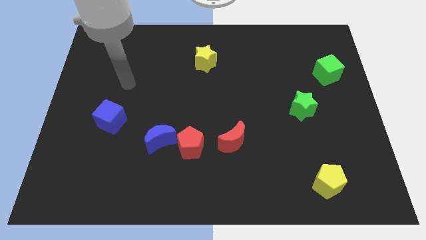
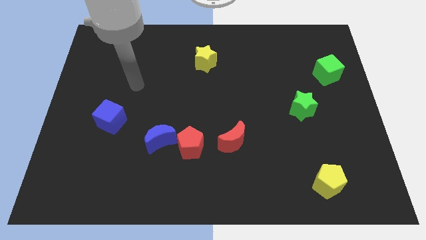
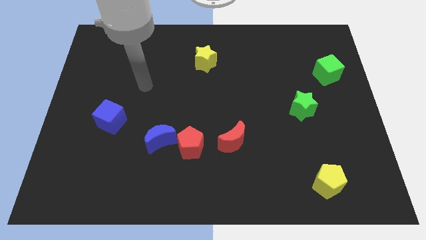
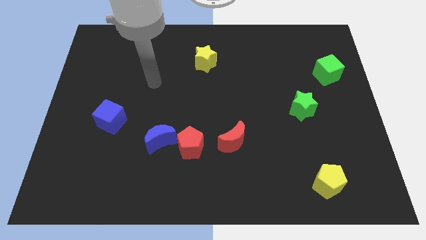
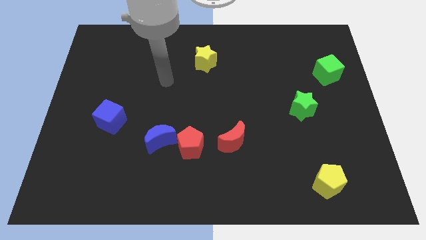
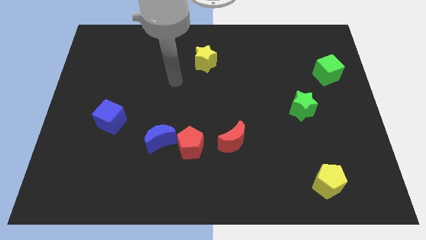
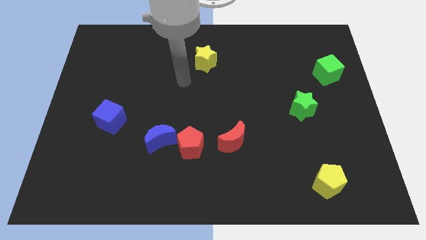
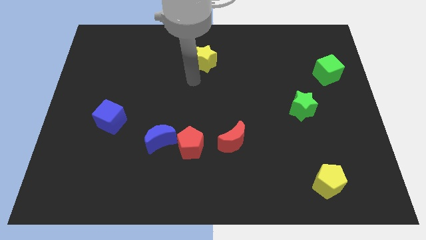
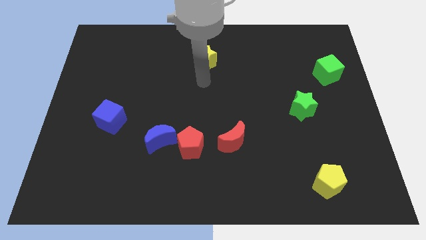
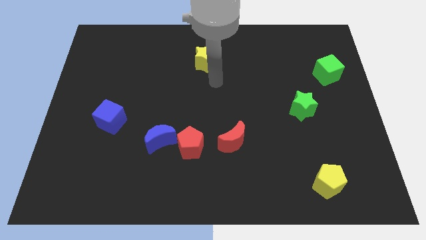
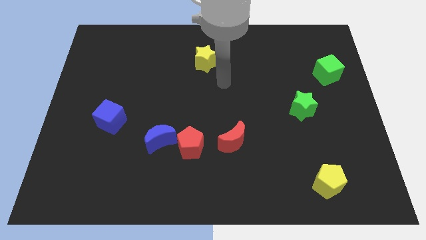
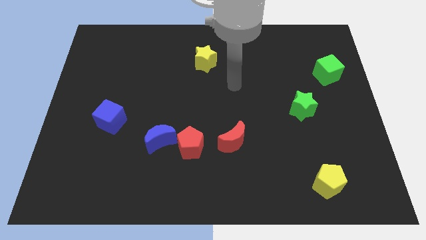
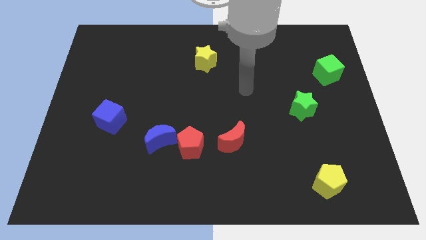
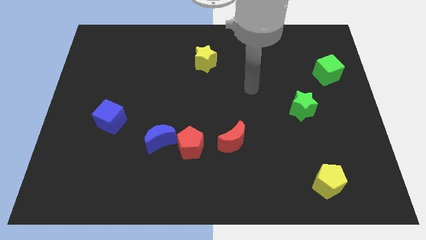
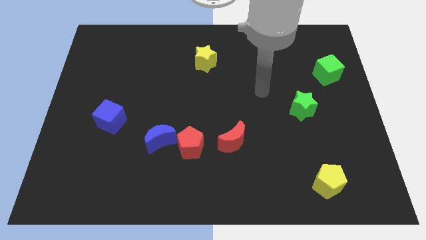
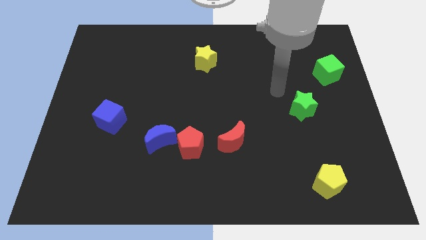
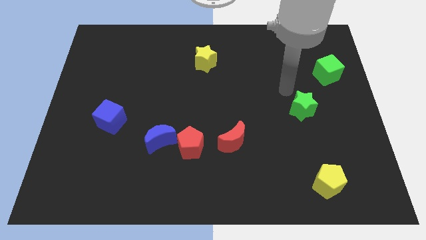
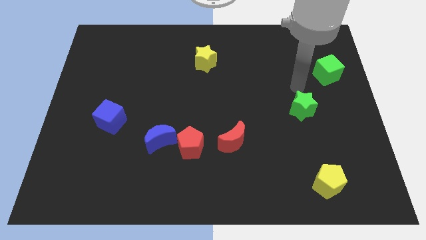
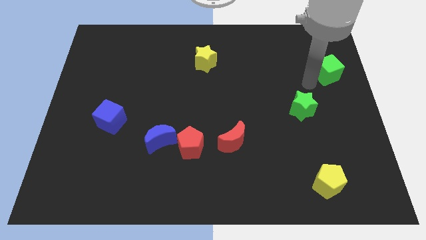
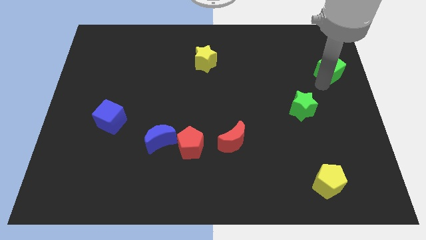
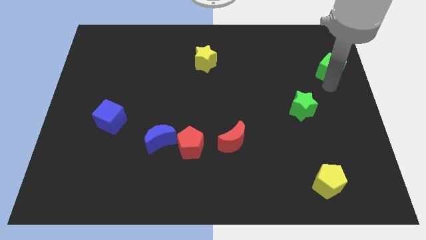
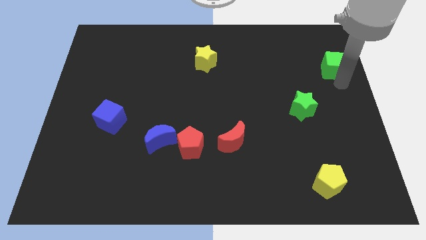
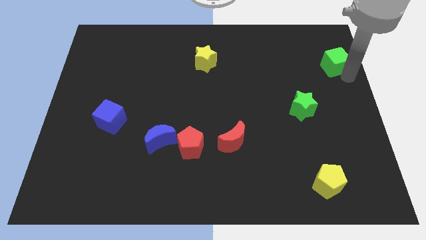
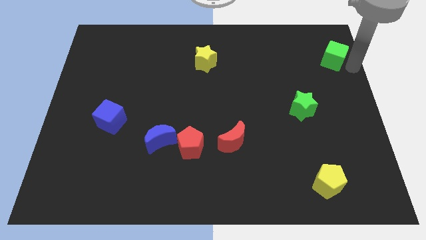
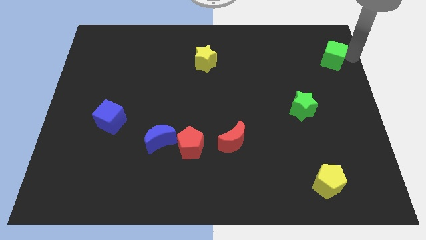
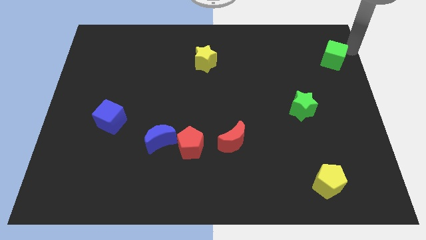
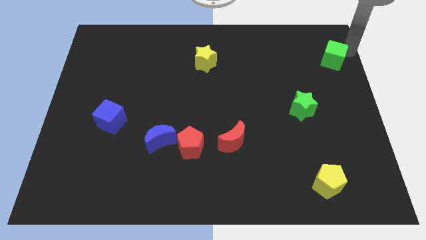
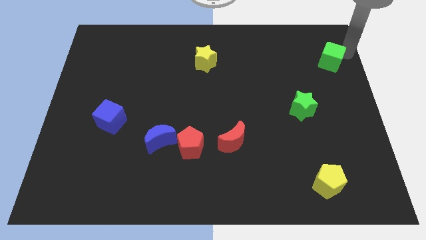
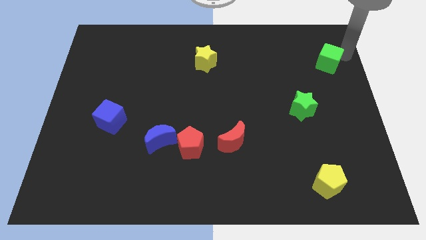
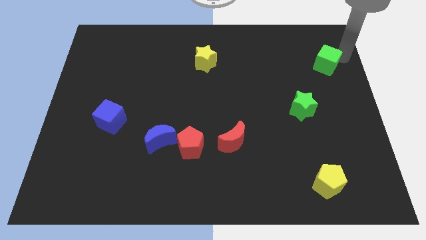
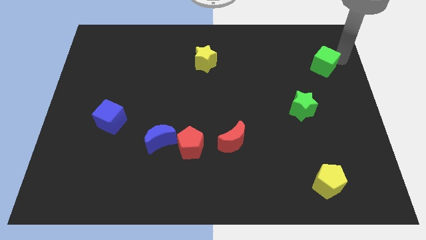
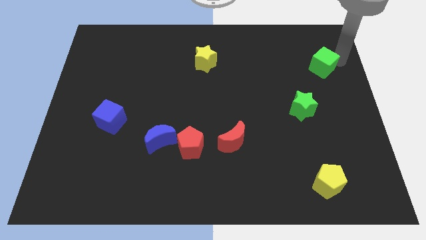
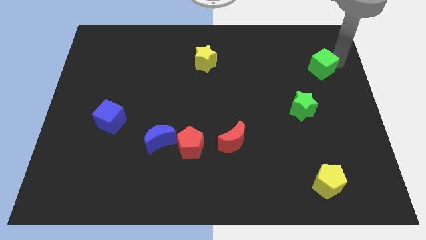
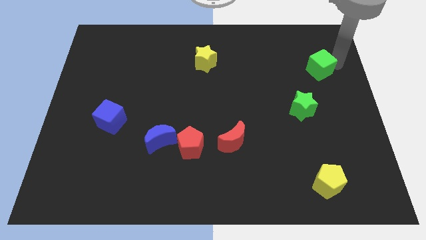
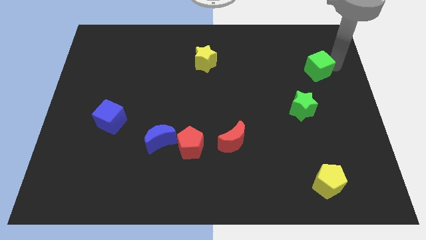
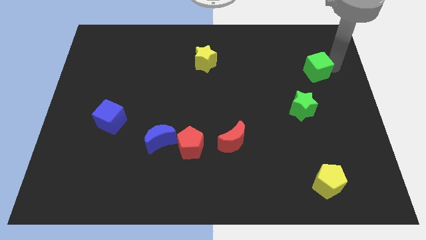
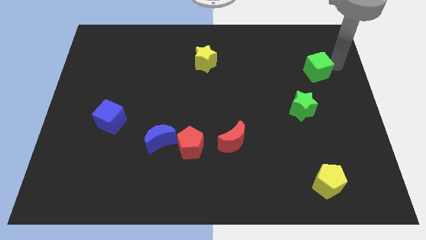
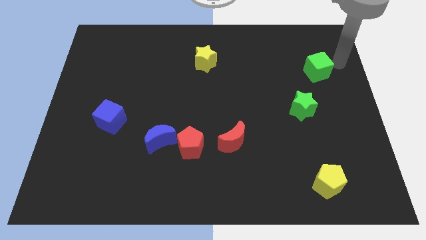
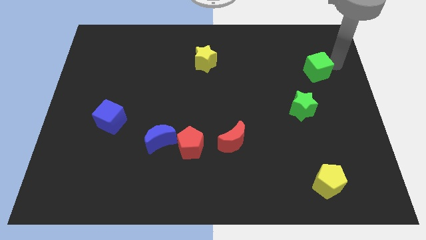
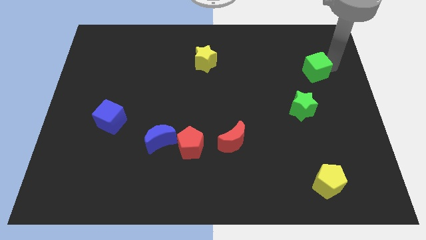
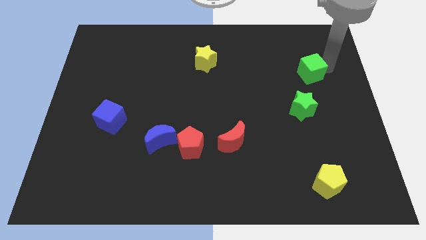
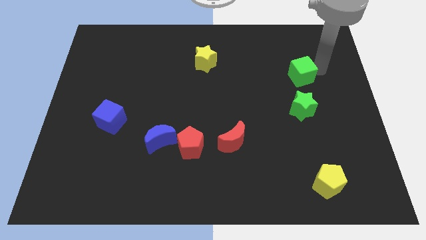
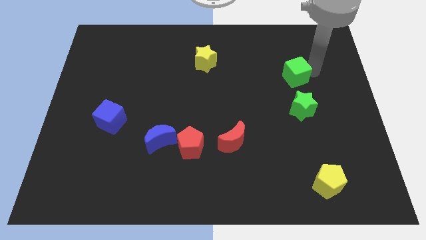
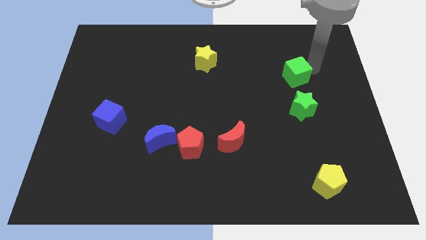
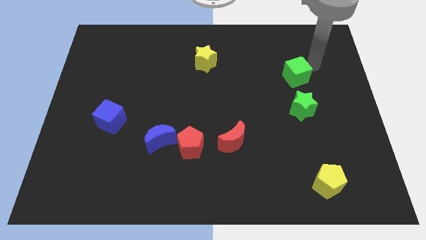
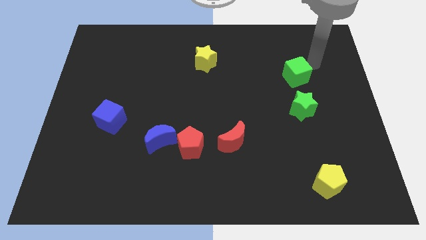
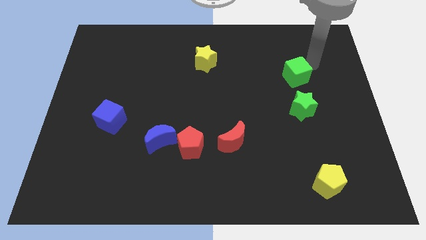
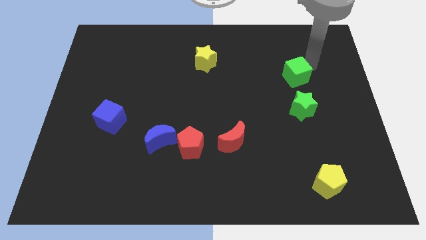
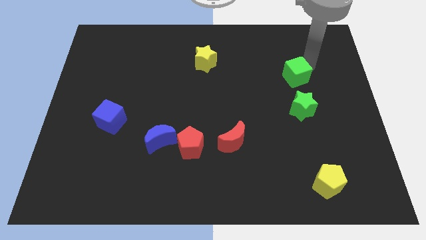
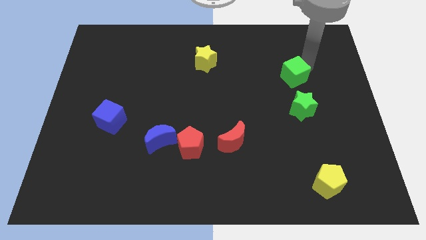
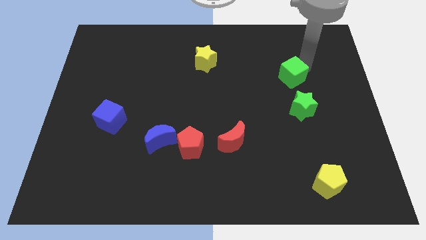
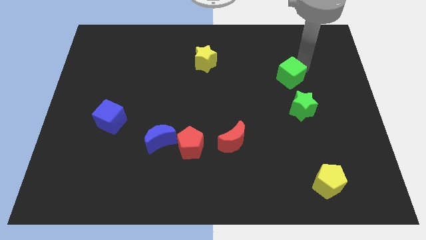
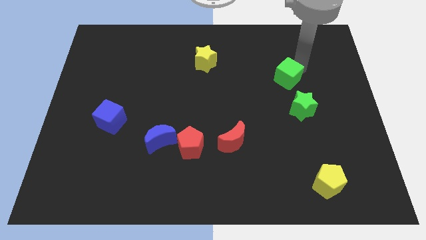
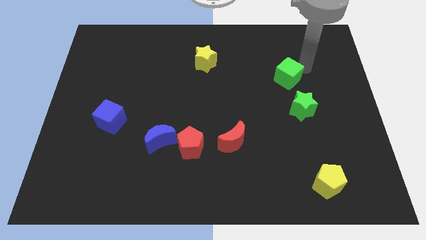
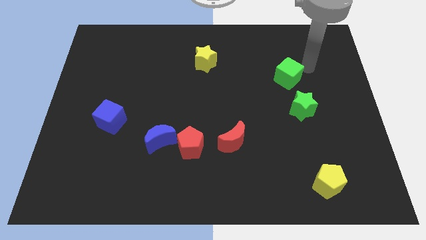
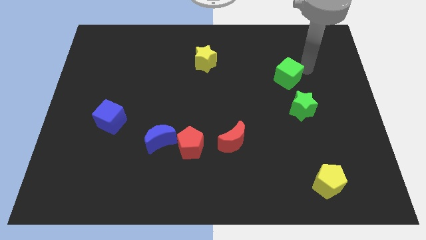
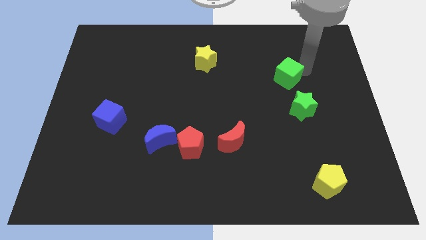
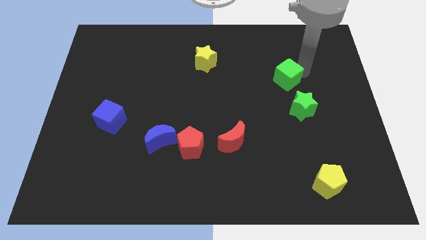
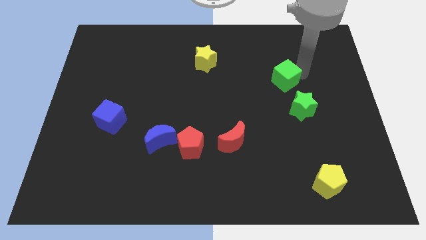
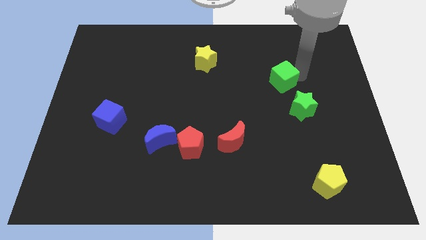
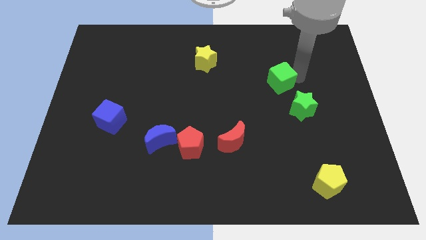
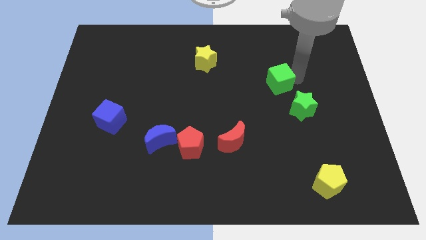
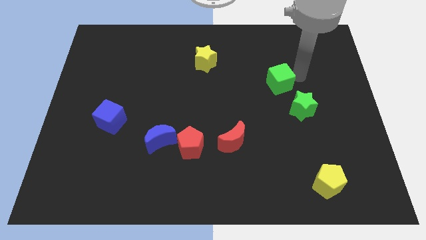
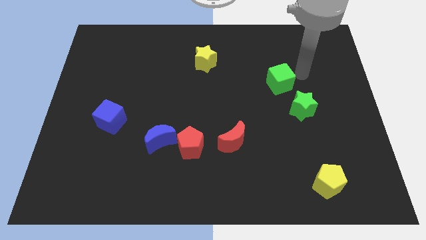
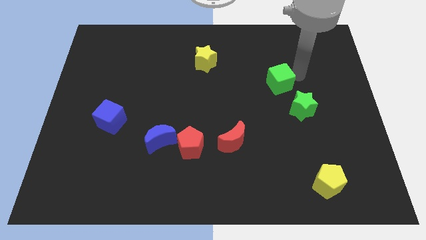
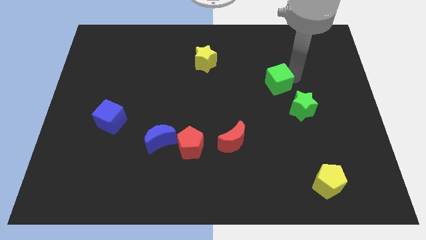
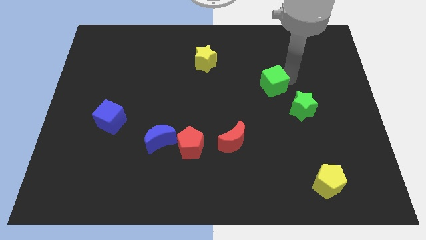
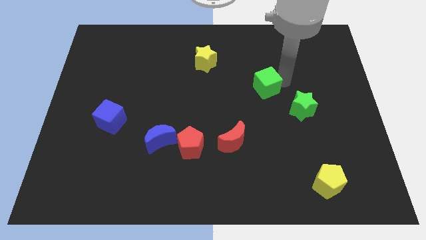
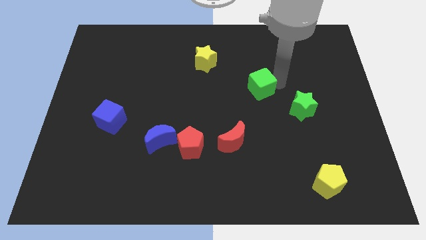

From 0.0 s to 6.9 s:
put the green cube to the middle
